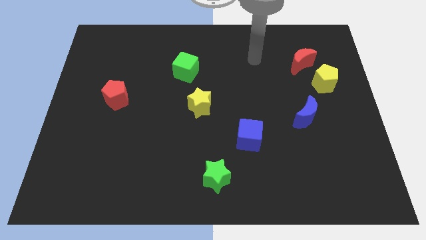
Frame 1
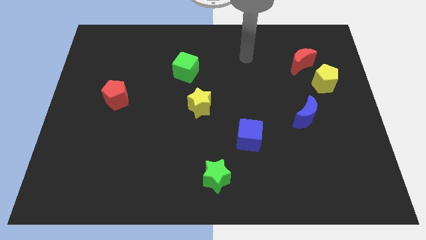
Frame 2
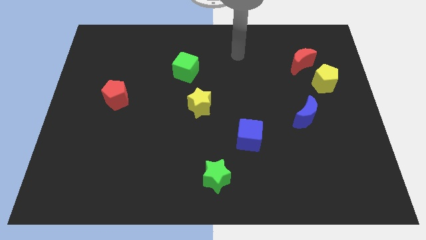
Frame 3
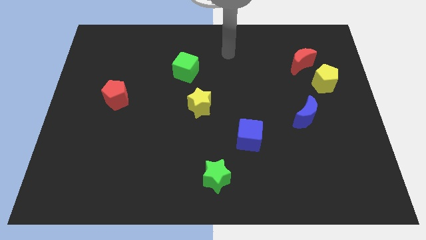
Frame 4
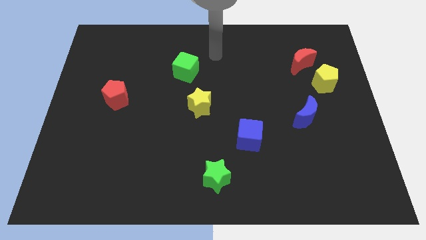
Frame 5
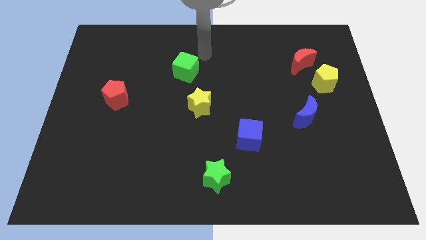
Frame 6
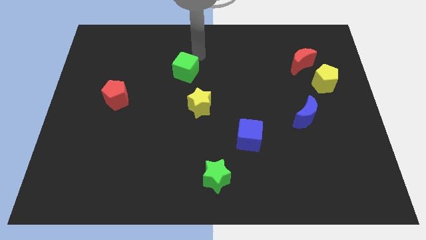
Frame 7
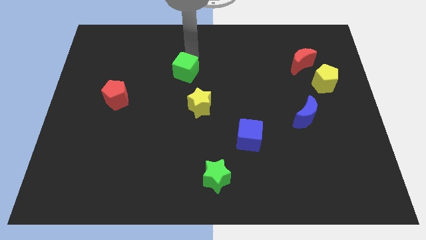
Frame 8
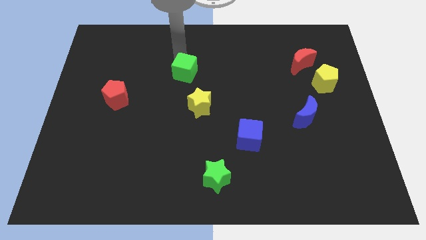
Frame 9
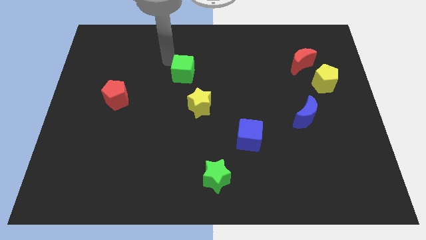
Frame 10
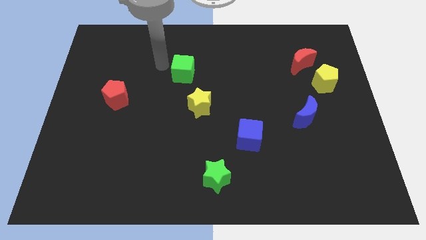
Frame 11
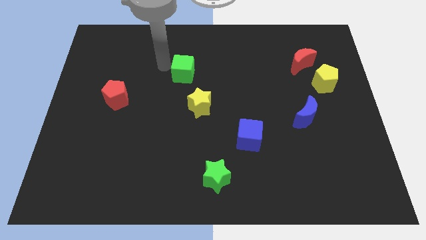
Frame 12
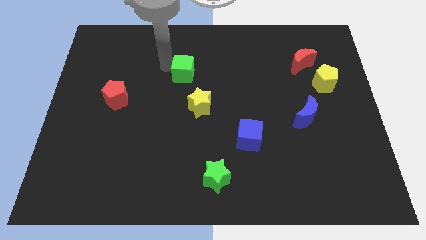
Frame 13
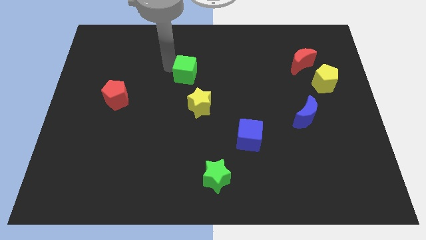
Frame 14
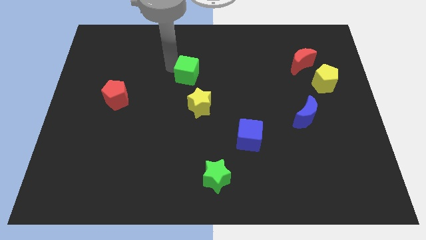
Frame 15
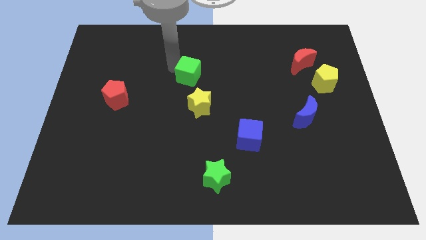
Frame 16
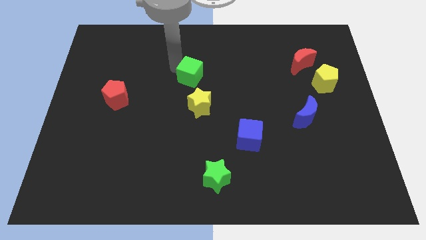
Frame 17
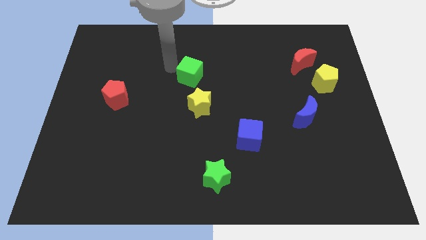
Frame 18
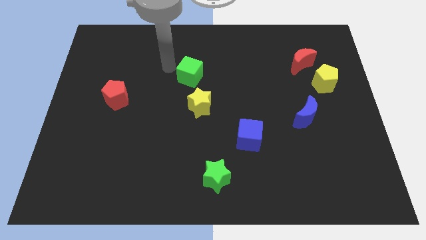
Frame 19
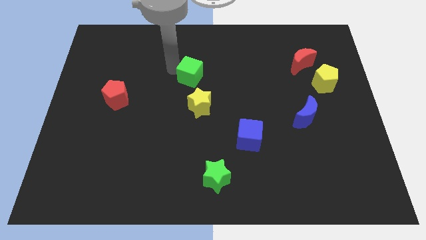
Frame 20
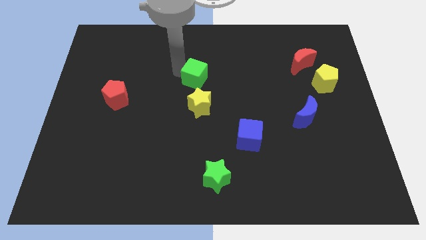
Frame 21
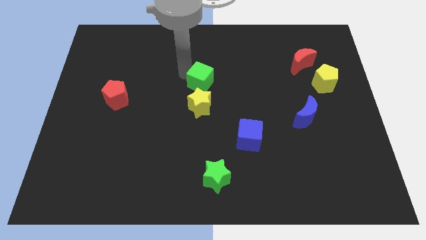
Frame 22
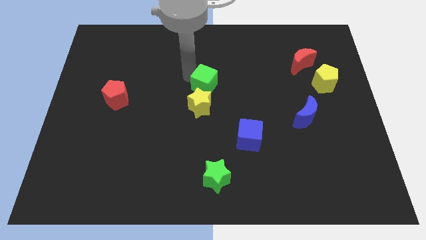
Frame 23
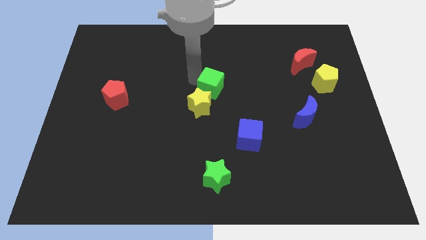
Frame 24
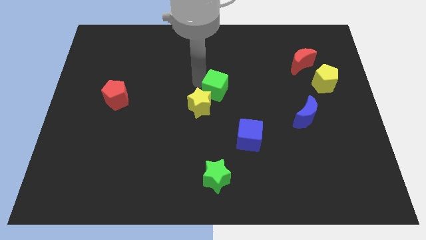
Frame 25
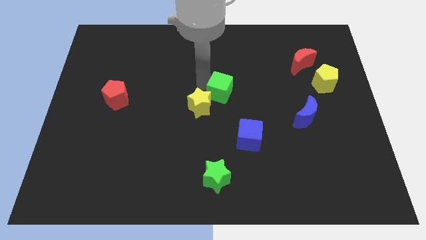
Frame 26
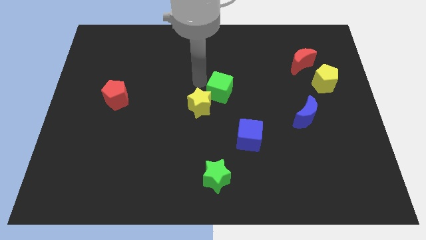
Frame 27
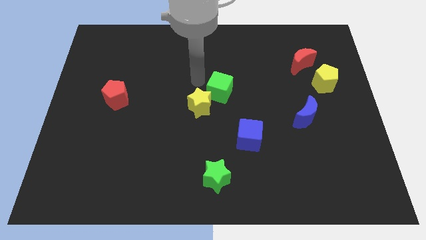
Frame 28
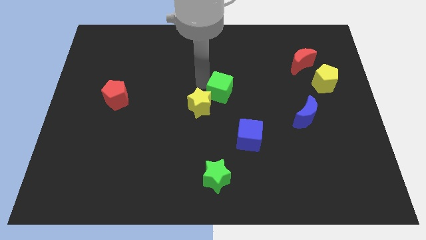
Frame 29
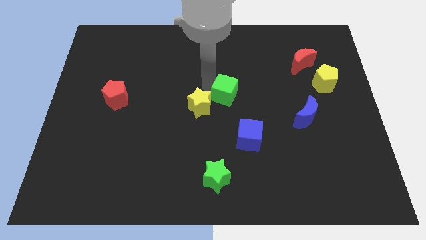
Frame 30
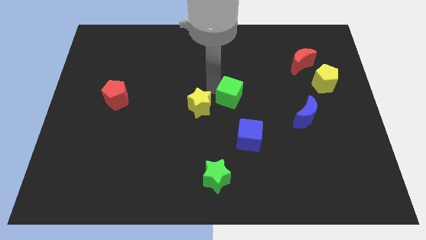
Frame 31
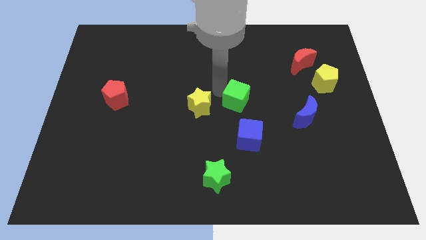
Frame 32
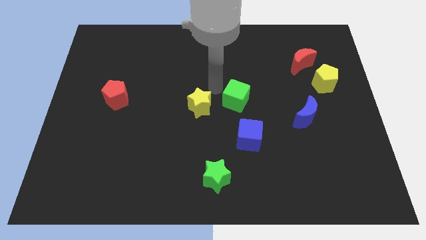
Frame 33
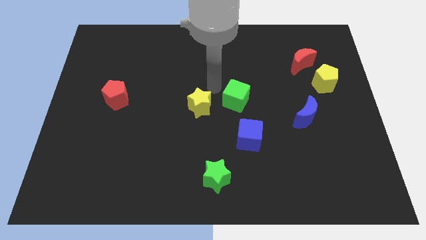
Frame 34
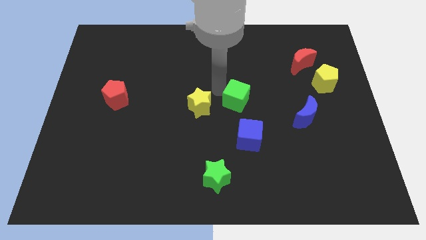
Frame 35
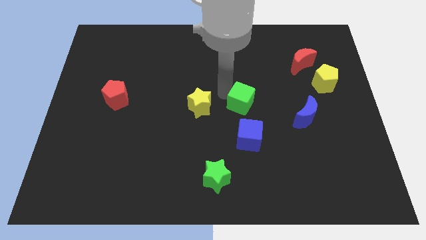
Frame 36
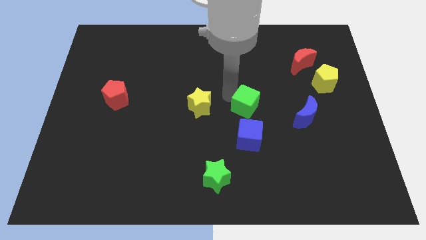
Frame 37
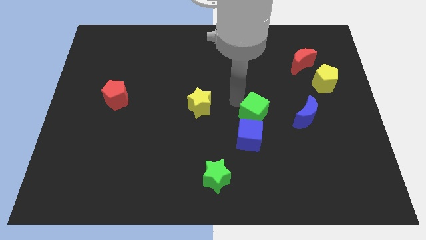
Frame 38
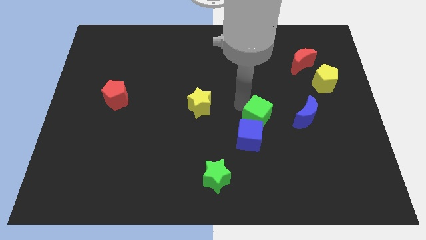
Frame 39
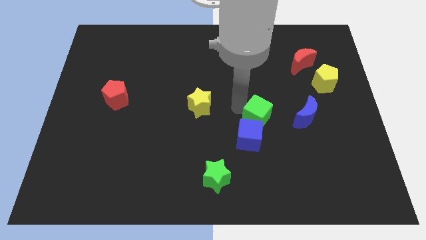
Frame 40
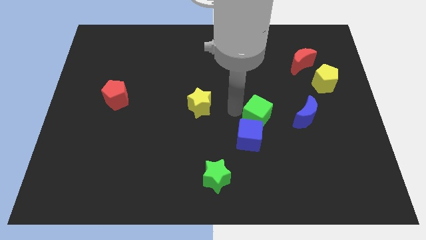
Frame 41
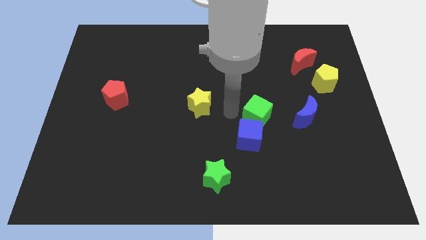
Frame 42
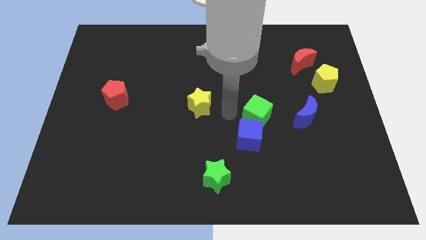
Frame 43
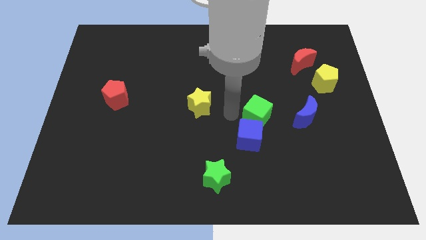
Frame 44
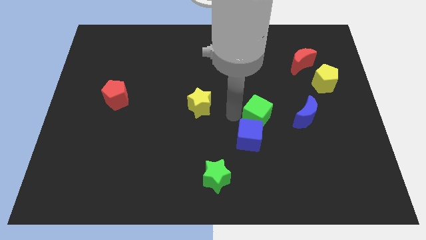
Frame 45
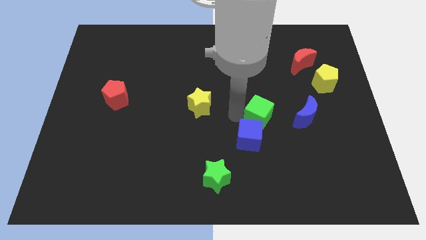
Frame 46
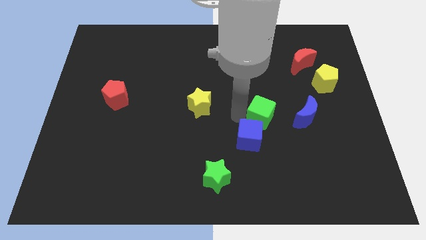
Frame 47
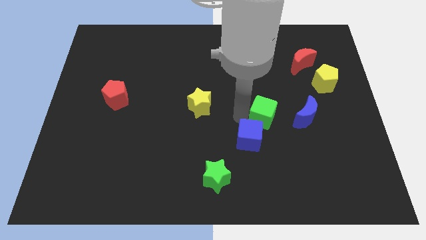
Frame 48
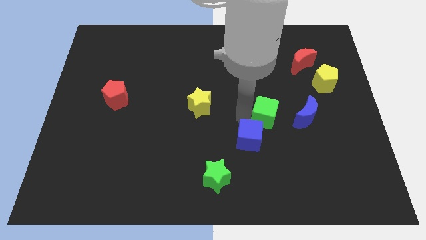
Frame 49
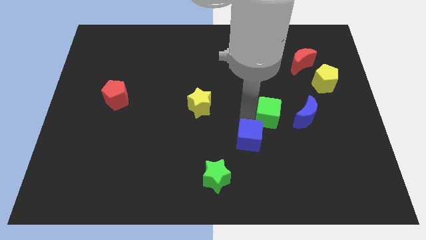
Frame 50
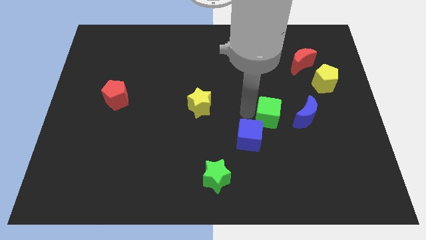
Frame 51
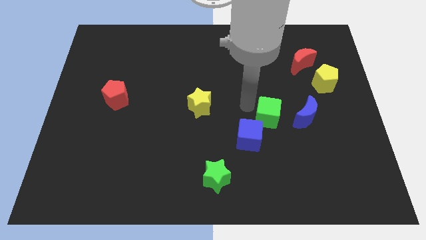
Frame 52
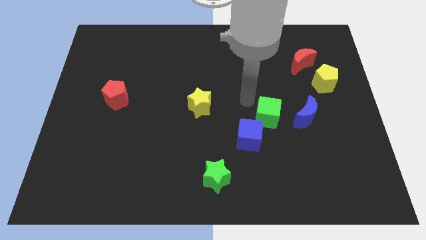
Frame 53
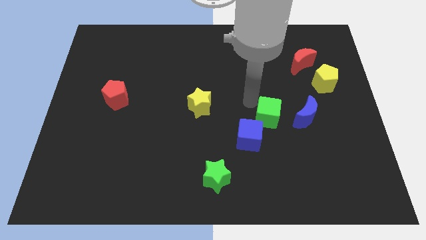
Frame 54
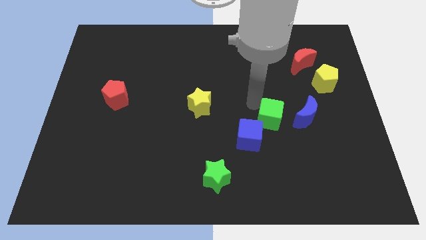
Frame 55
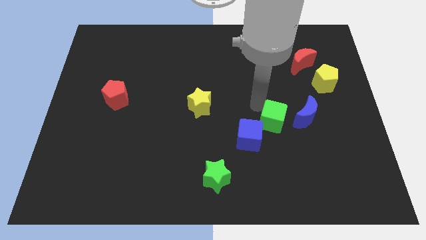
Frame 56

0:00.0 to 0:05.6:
push the green cube just right of the blue cube

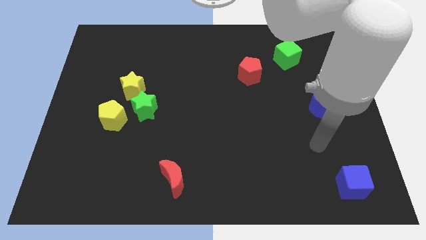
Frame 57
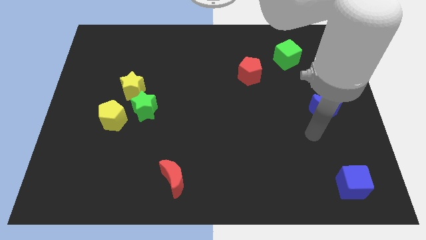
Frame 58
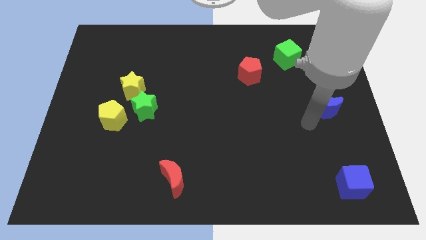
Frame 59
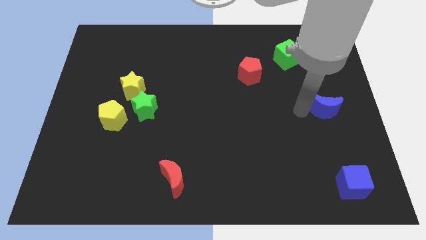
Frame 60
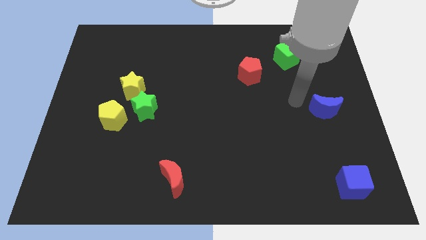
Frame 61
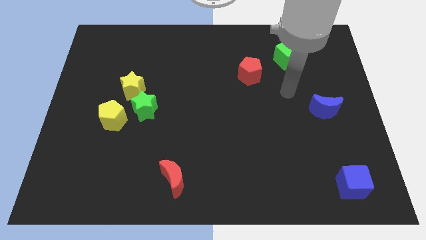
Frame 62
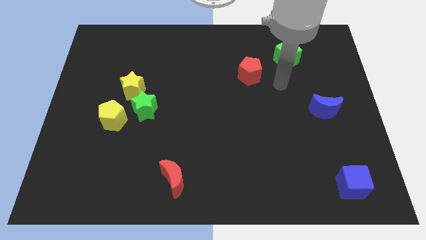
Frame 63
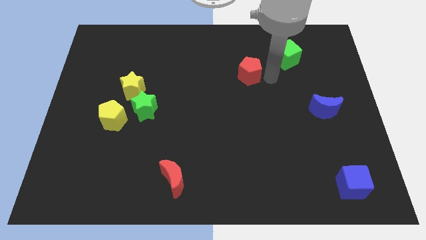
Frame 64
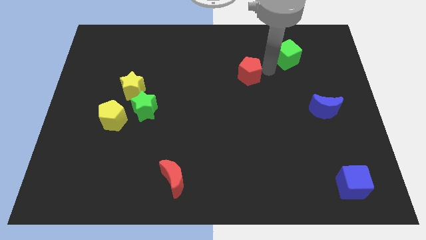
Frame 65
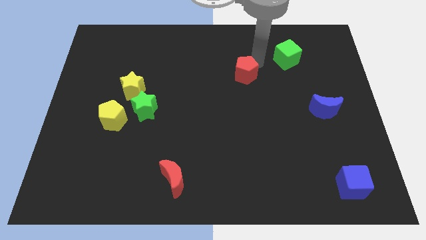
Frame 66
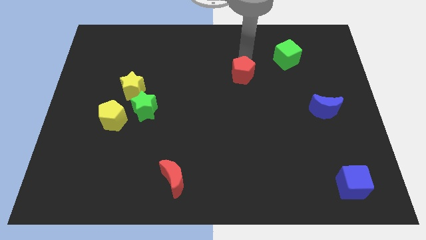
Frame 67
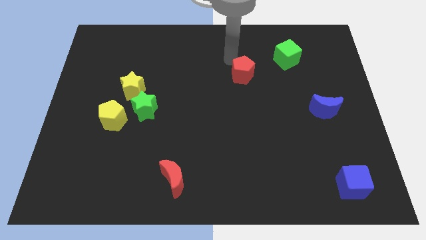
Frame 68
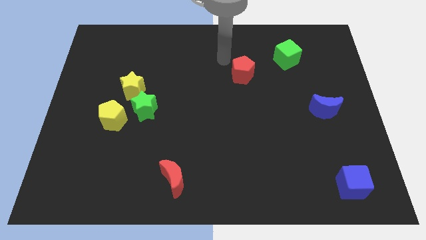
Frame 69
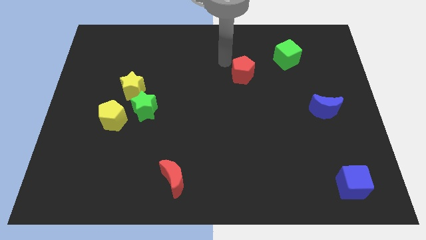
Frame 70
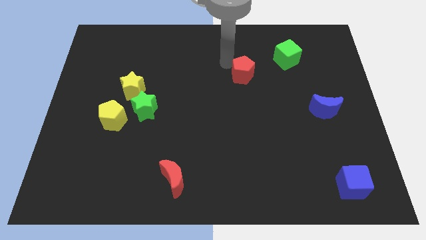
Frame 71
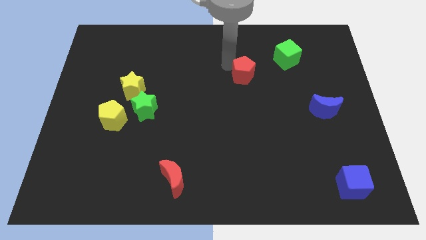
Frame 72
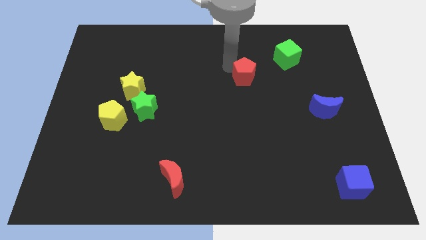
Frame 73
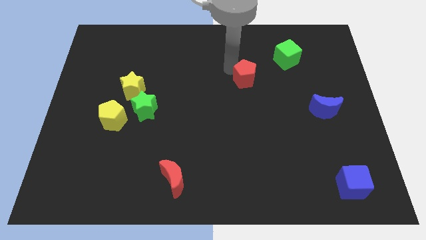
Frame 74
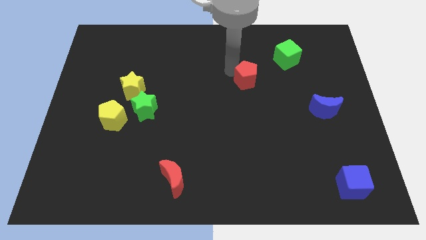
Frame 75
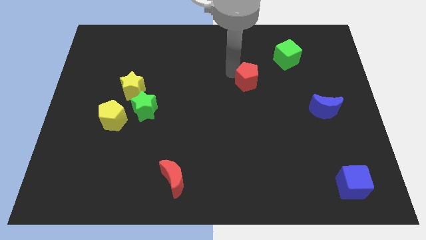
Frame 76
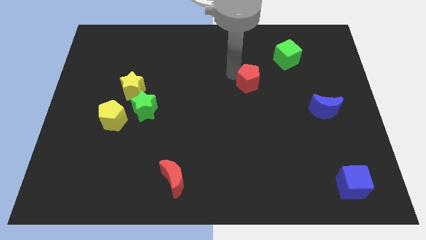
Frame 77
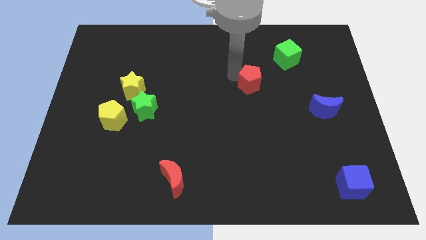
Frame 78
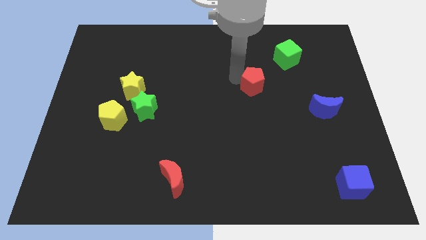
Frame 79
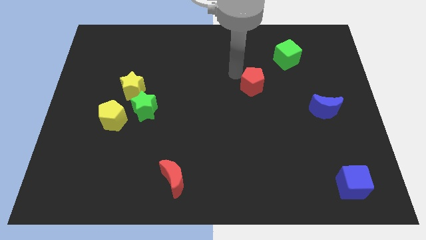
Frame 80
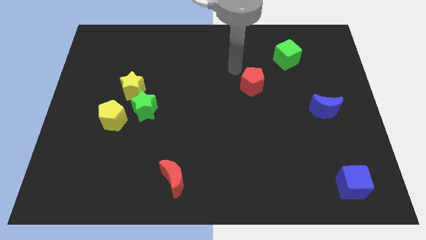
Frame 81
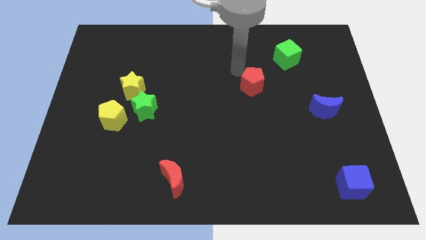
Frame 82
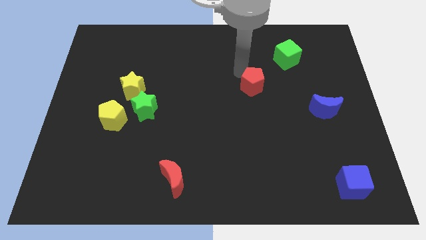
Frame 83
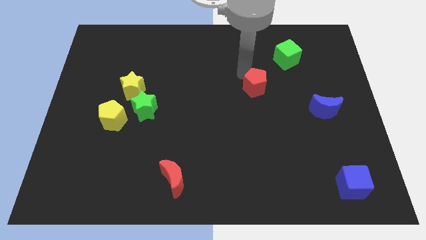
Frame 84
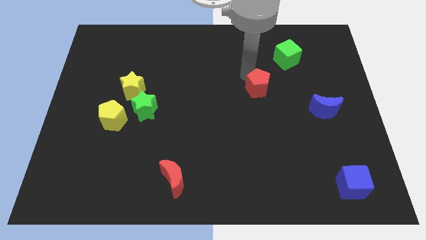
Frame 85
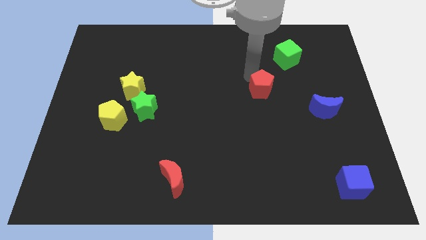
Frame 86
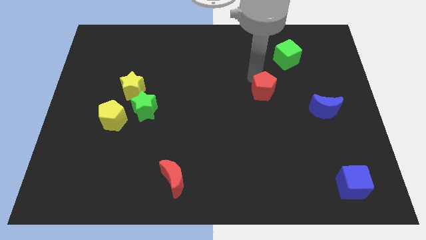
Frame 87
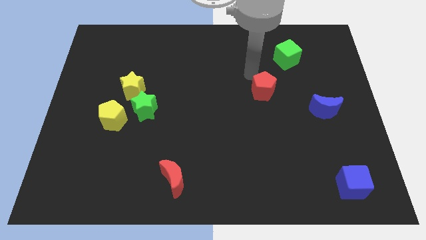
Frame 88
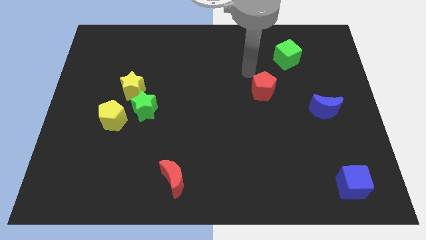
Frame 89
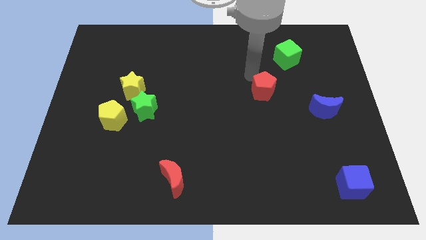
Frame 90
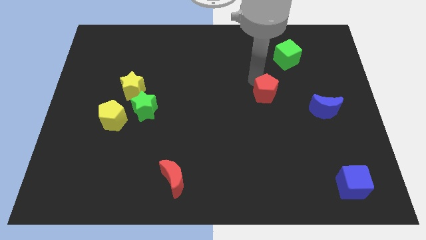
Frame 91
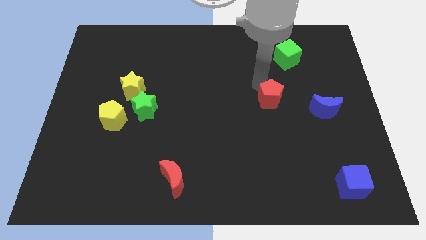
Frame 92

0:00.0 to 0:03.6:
push the red pentagon to the left of the blue moon
